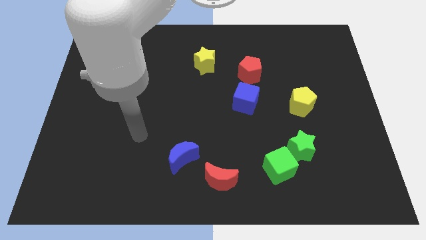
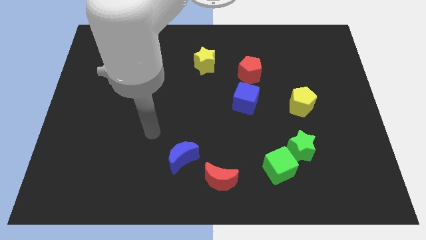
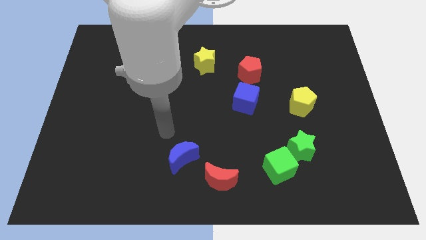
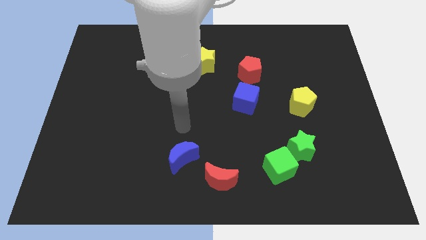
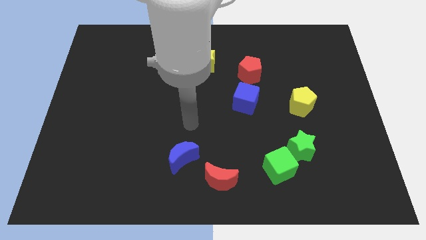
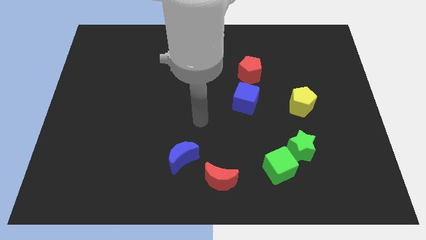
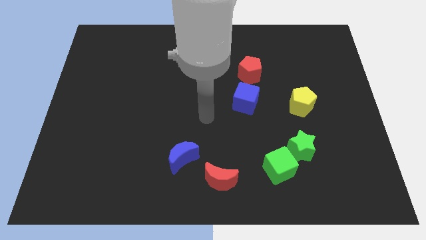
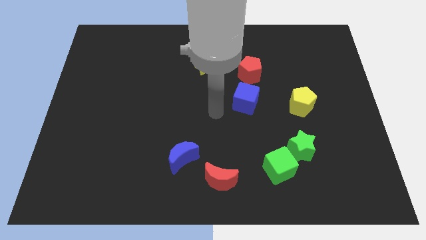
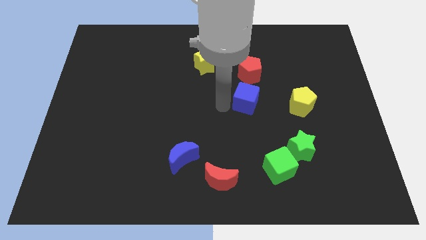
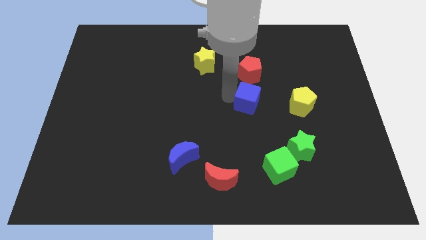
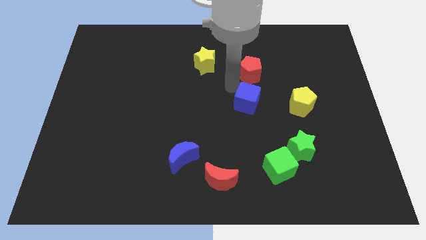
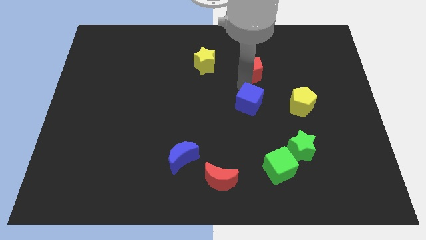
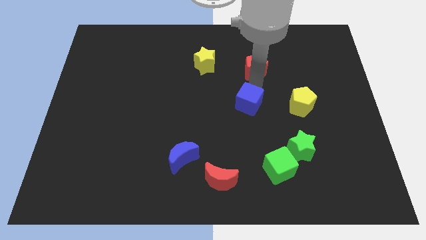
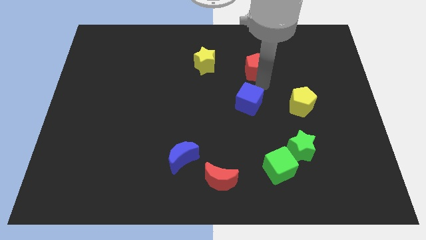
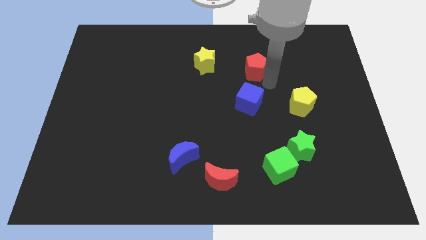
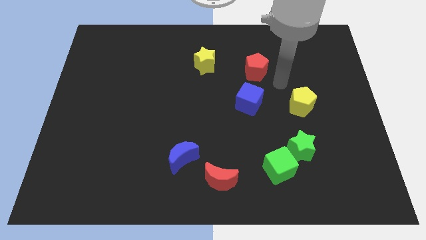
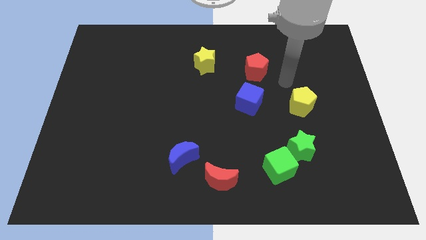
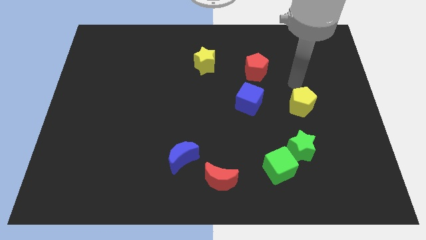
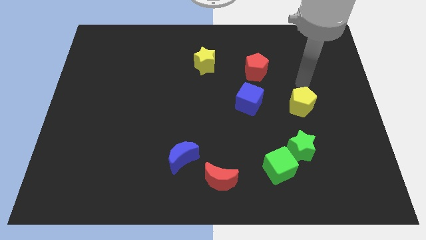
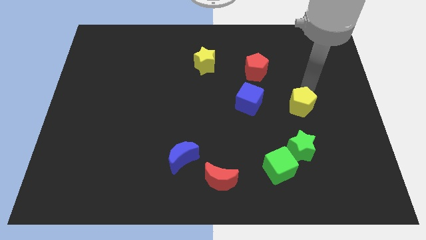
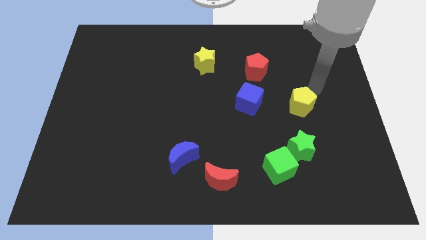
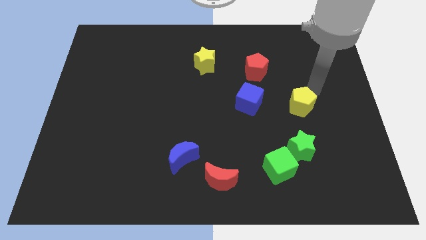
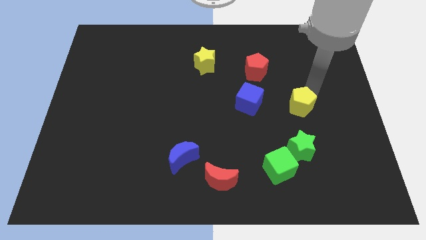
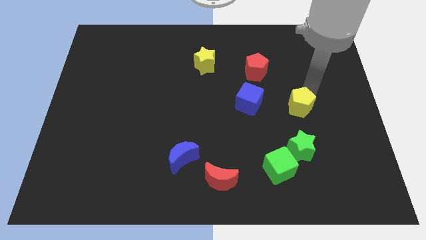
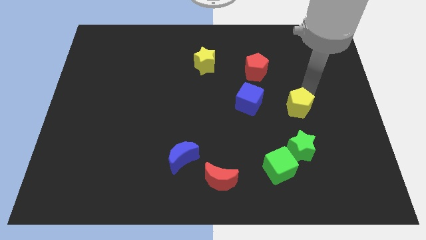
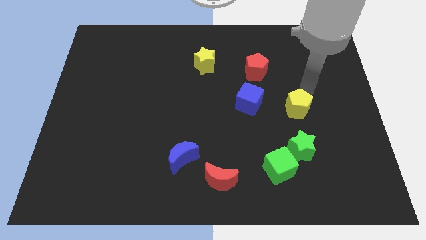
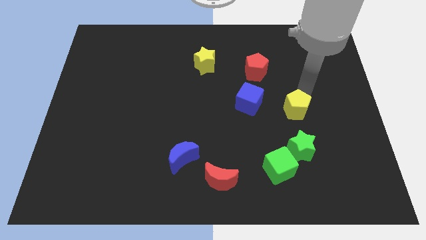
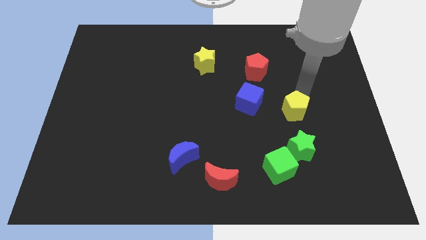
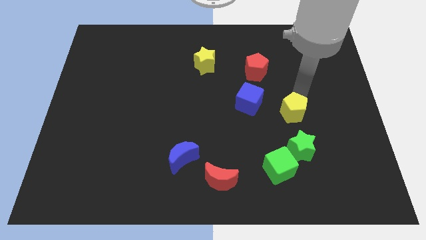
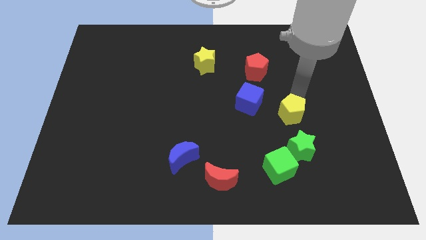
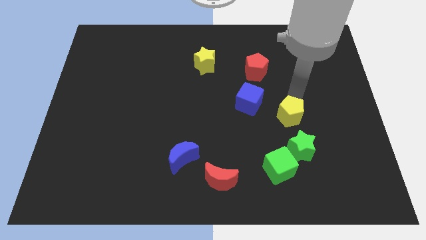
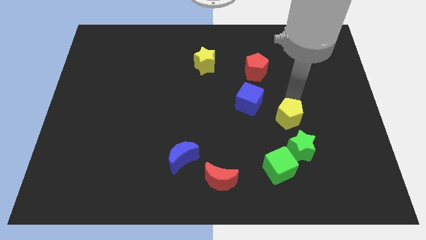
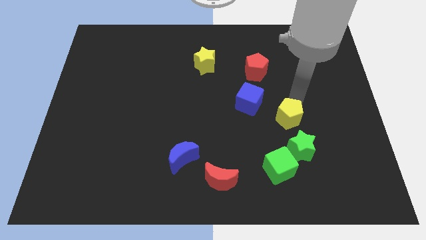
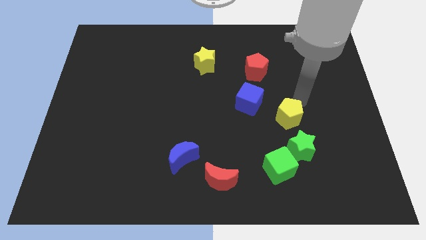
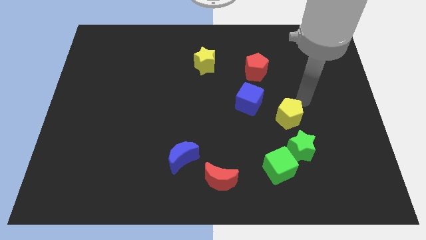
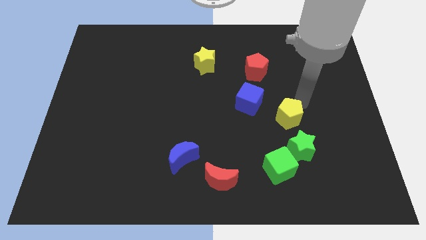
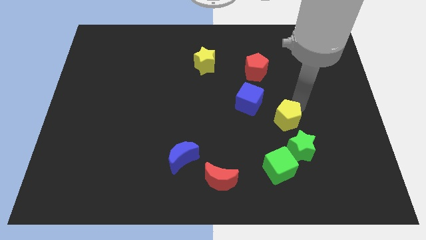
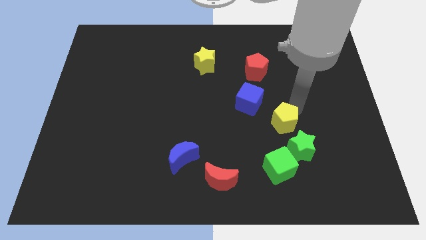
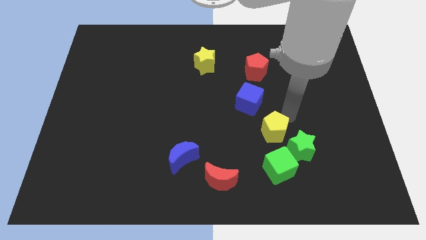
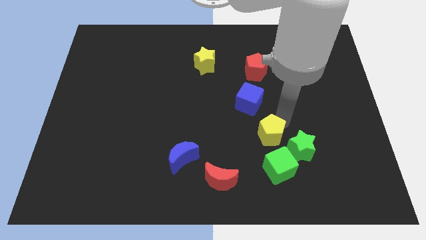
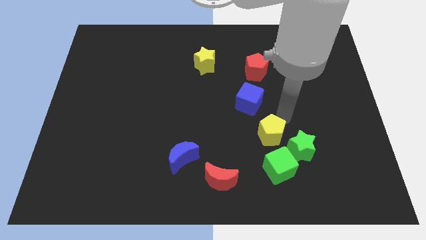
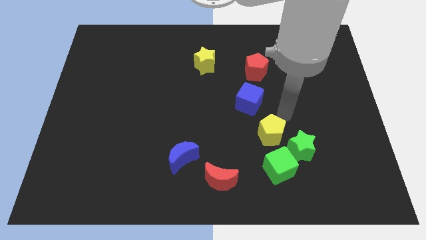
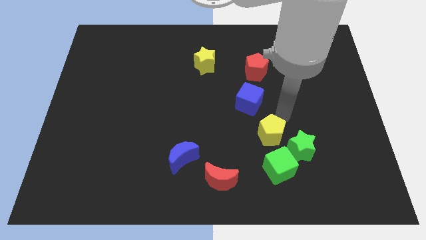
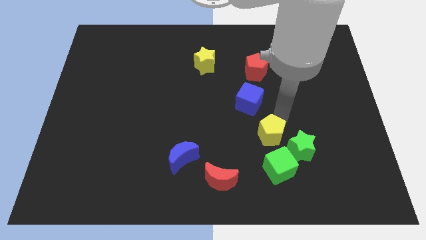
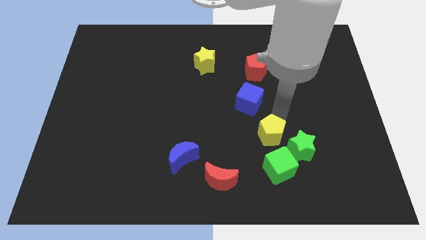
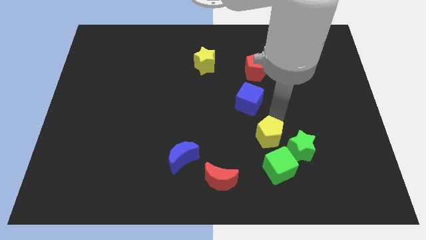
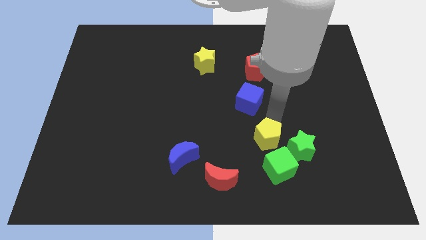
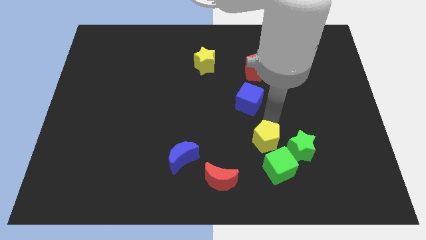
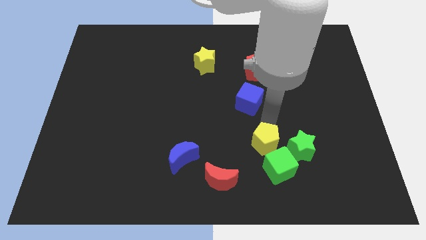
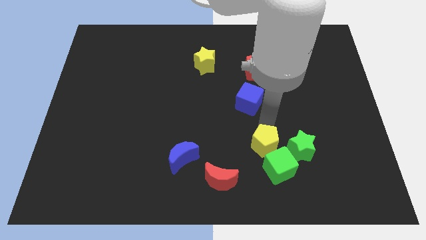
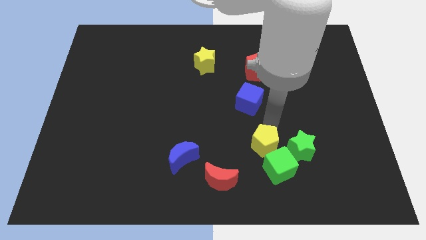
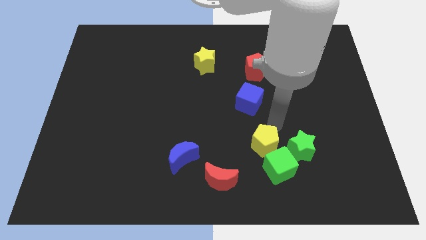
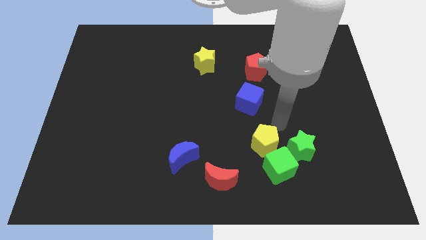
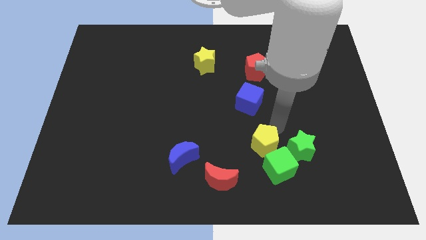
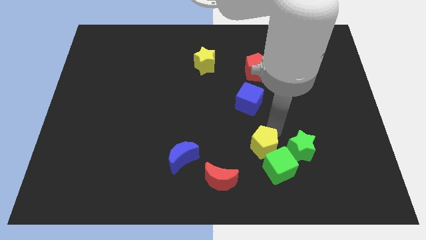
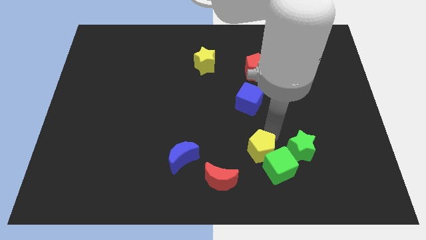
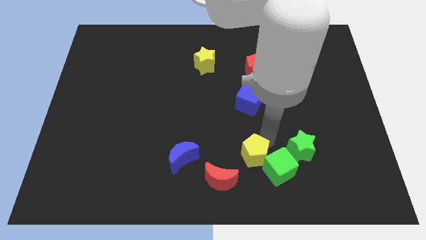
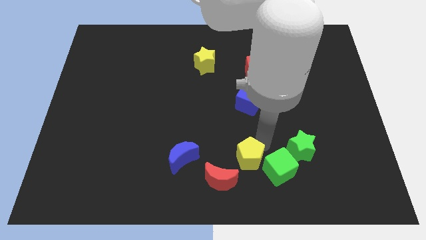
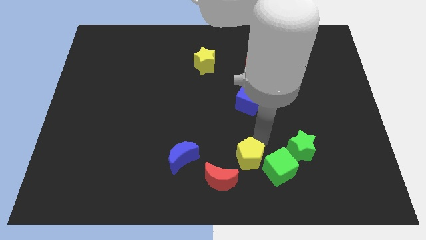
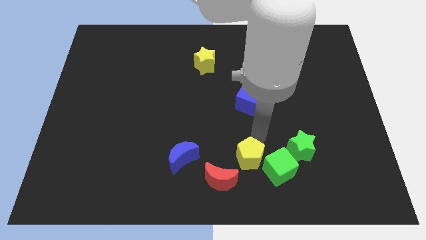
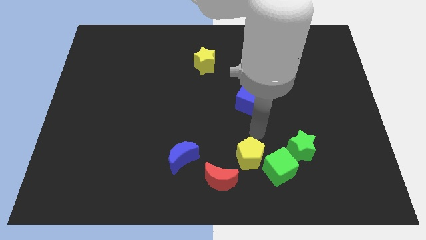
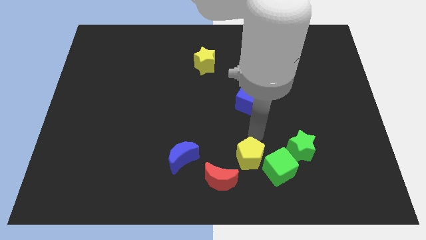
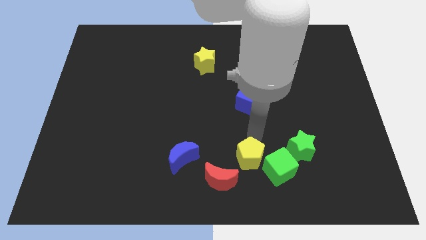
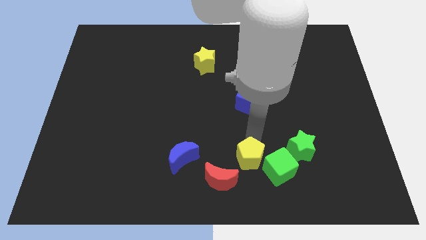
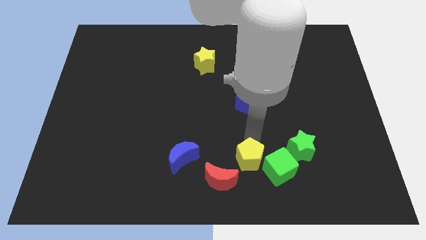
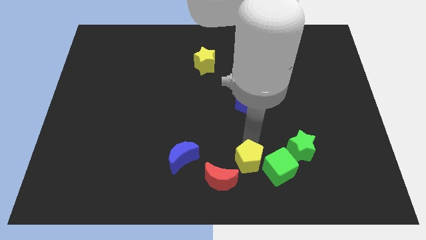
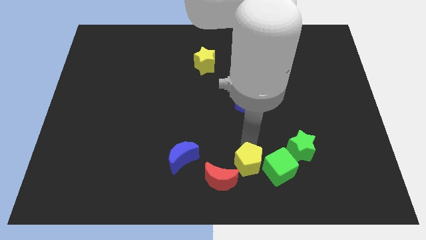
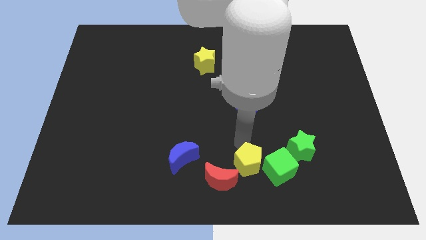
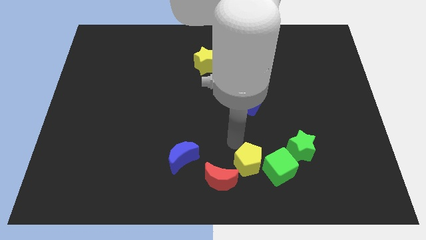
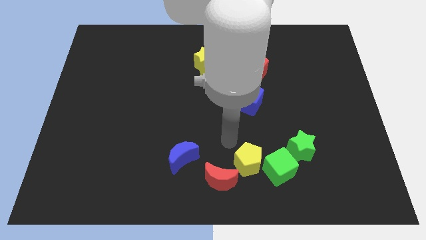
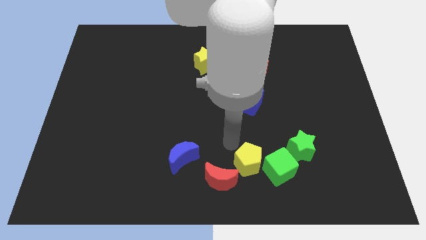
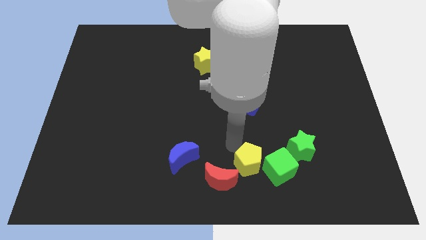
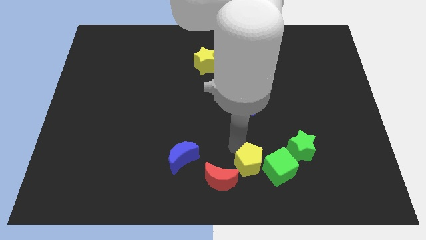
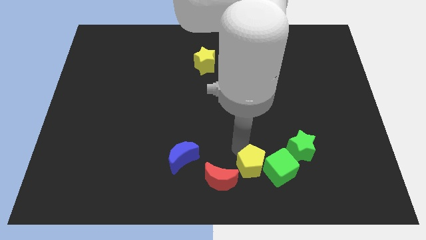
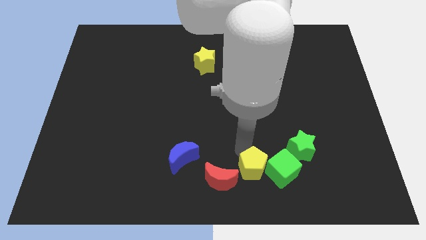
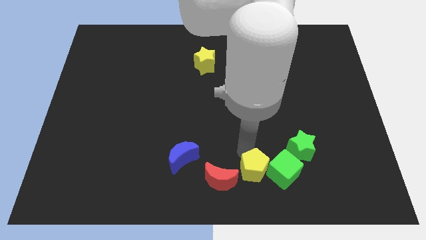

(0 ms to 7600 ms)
push the yellow pentagon diagonally down and to the left of the green star
